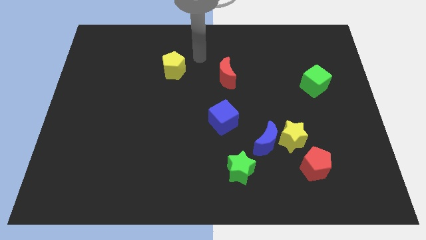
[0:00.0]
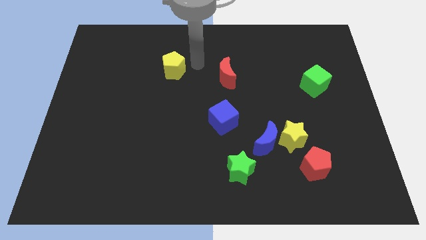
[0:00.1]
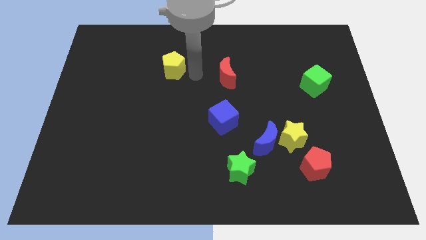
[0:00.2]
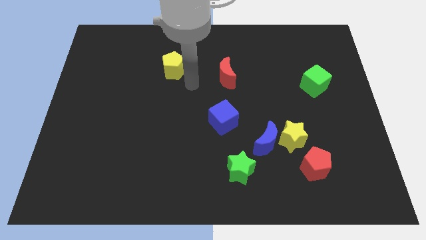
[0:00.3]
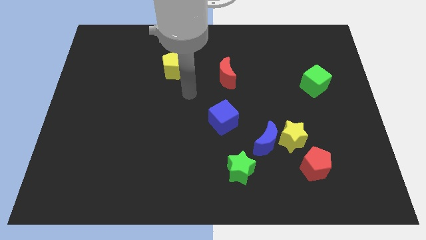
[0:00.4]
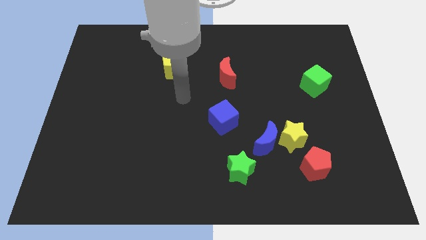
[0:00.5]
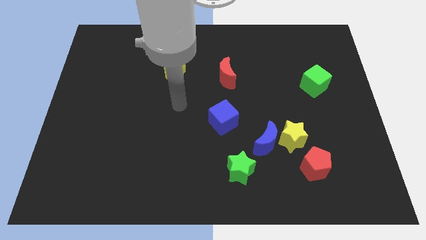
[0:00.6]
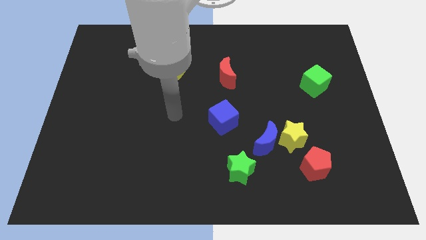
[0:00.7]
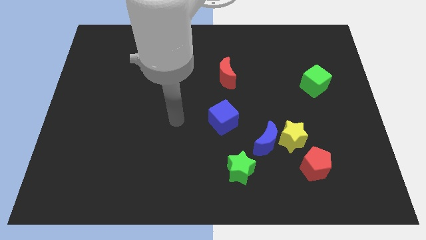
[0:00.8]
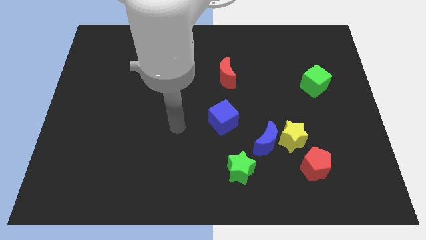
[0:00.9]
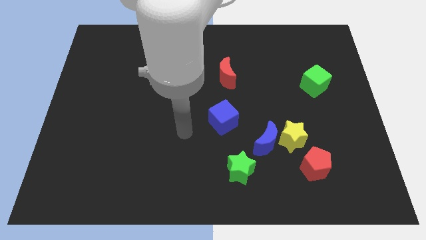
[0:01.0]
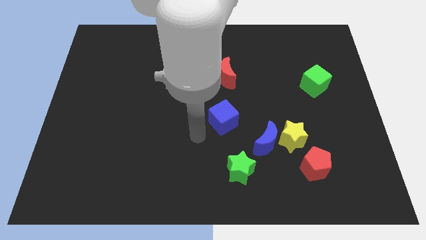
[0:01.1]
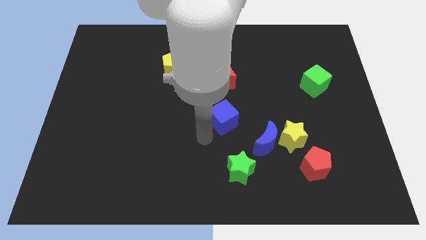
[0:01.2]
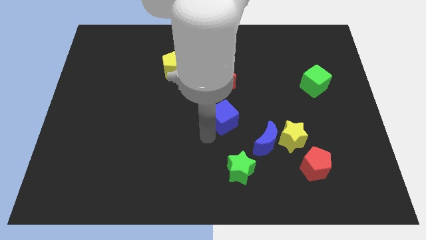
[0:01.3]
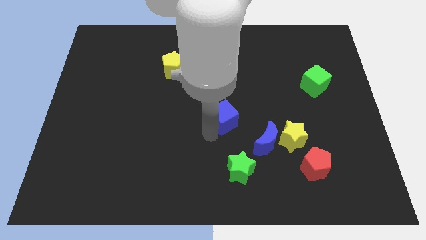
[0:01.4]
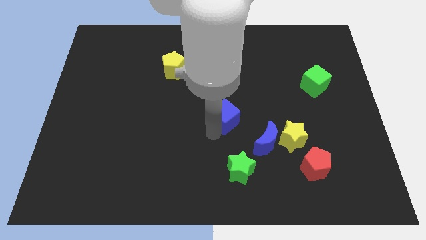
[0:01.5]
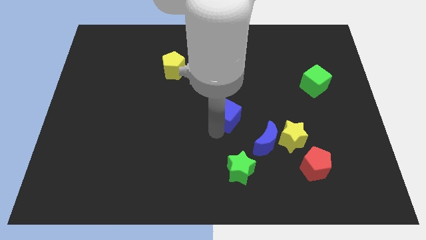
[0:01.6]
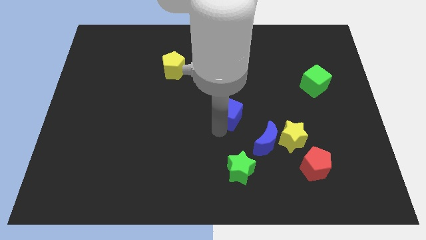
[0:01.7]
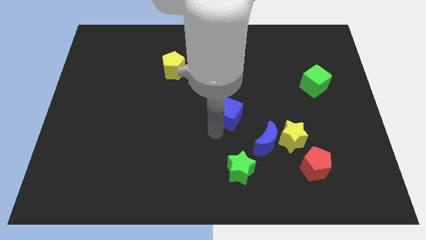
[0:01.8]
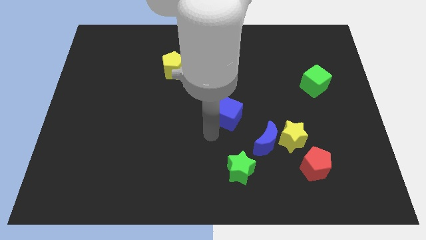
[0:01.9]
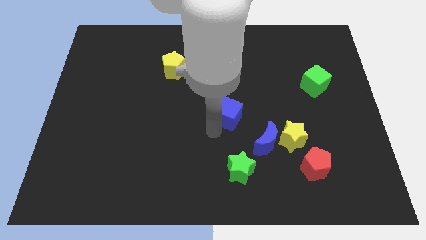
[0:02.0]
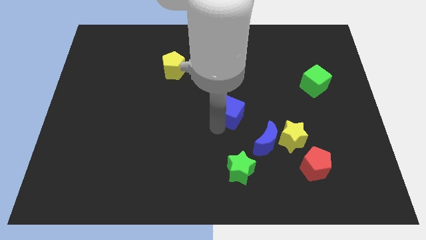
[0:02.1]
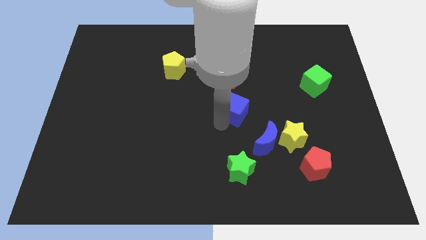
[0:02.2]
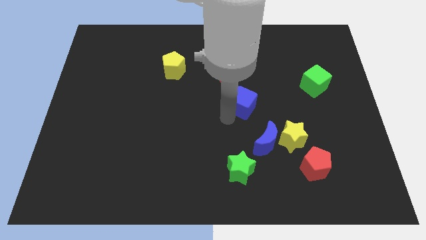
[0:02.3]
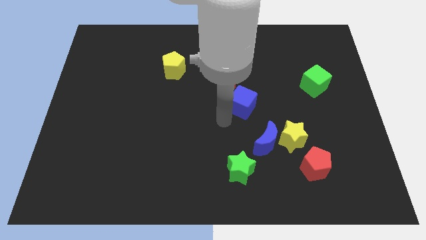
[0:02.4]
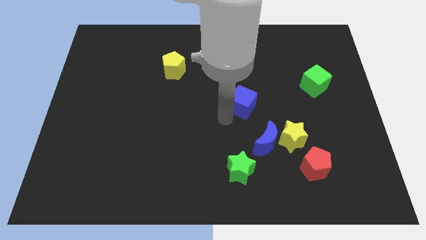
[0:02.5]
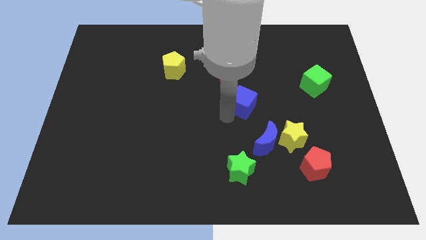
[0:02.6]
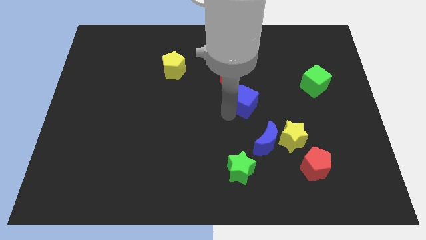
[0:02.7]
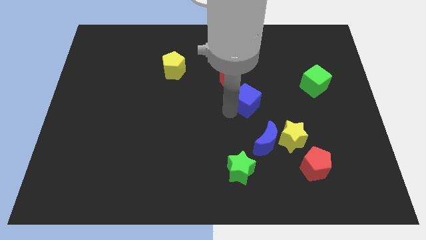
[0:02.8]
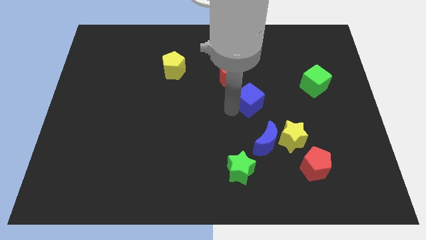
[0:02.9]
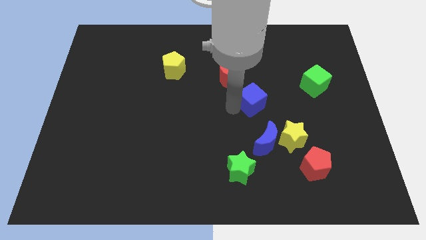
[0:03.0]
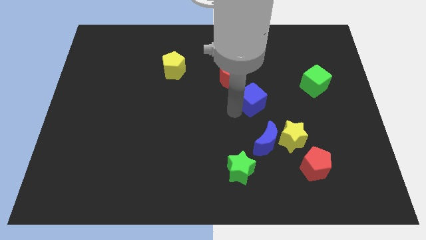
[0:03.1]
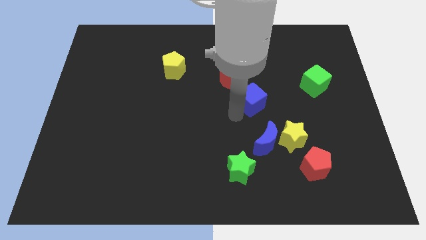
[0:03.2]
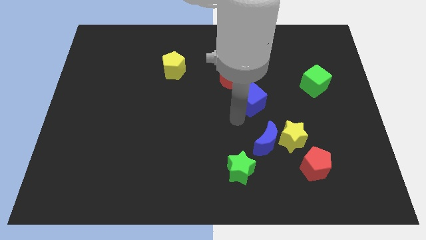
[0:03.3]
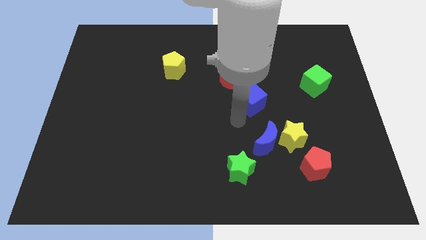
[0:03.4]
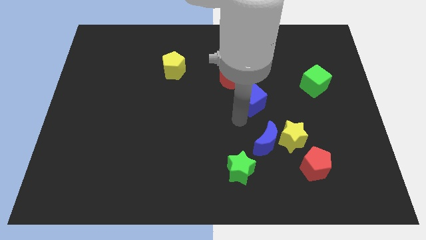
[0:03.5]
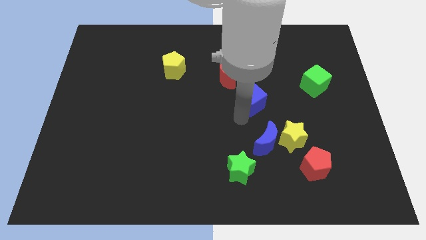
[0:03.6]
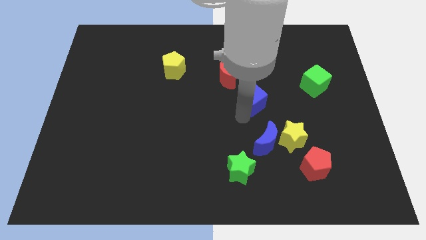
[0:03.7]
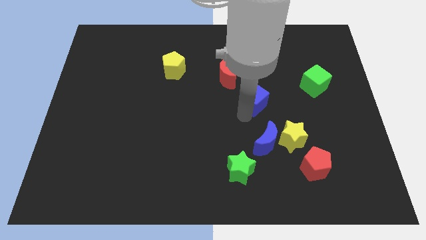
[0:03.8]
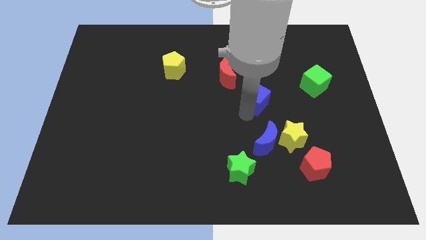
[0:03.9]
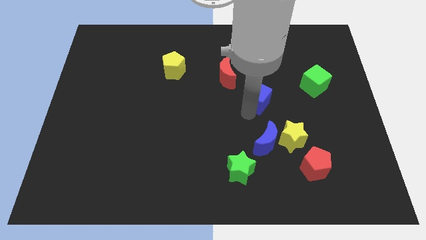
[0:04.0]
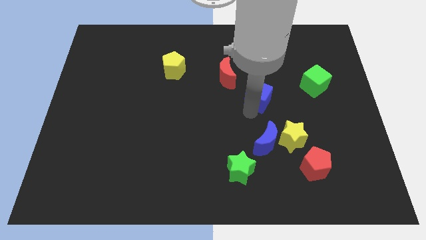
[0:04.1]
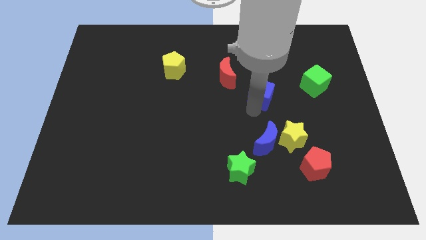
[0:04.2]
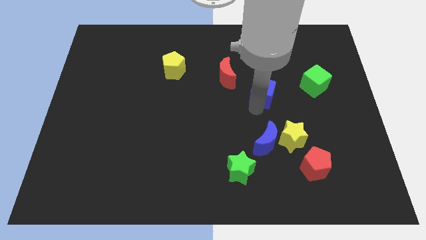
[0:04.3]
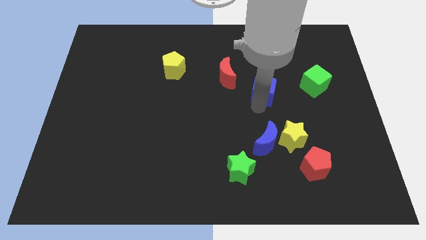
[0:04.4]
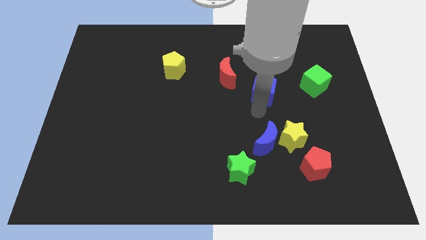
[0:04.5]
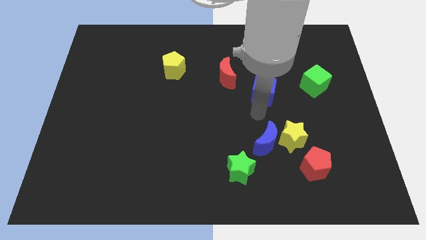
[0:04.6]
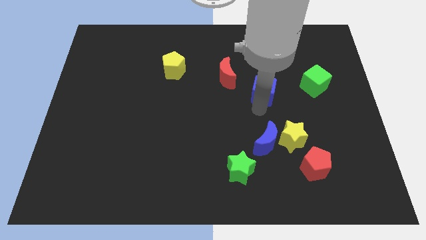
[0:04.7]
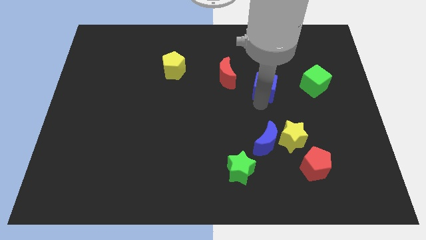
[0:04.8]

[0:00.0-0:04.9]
slide the blue cube to the right of the red moon

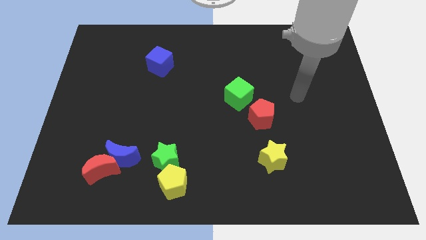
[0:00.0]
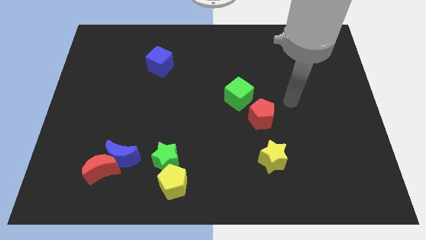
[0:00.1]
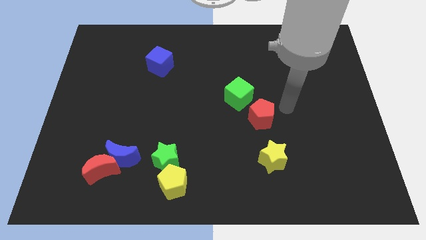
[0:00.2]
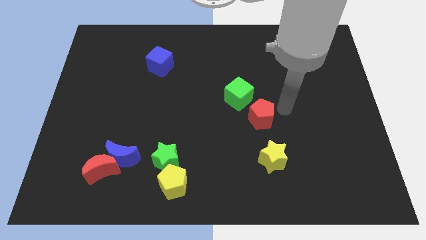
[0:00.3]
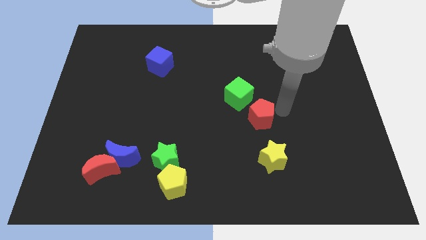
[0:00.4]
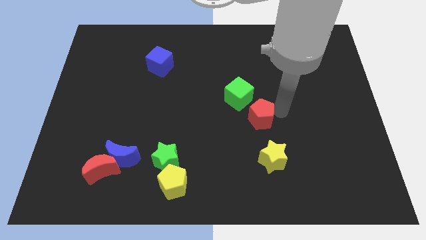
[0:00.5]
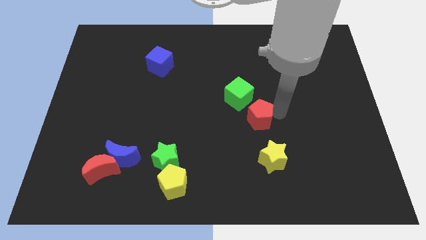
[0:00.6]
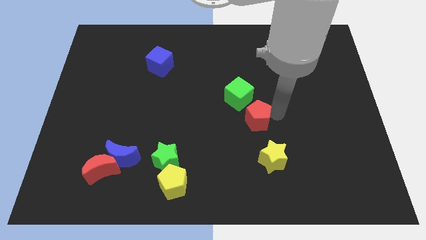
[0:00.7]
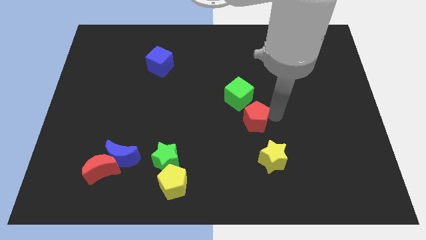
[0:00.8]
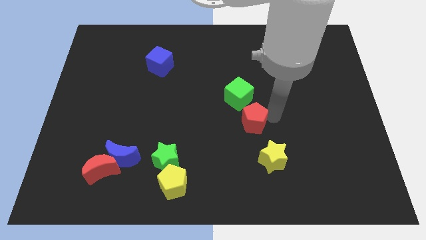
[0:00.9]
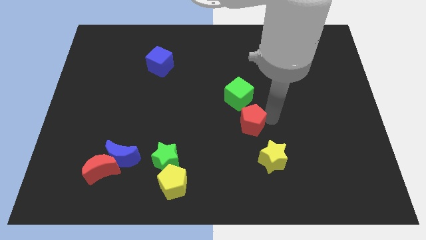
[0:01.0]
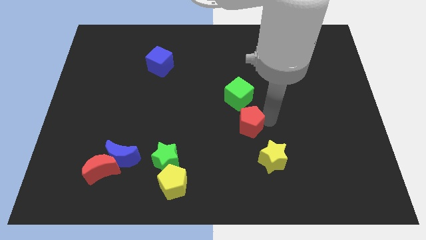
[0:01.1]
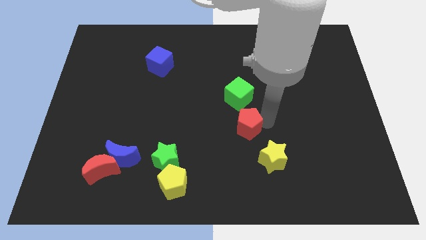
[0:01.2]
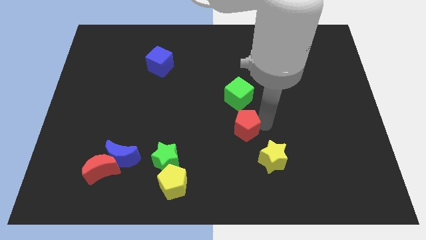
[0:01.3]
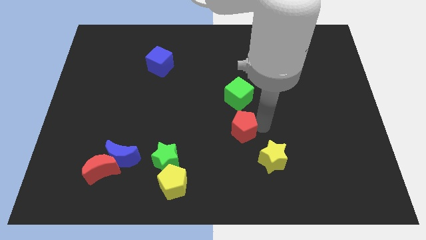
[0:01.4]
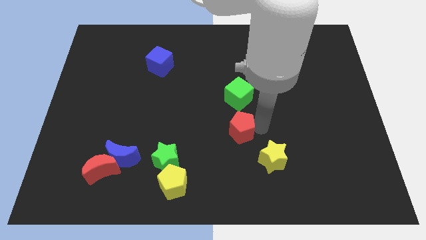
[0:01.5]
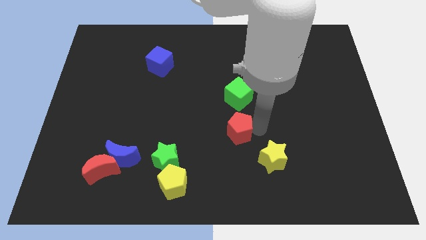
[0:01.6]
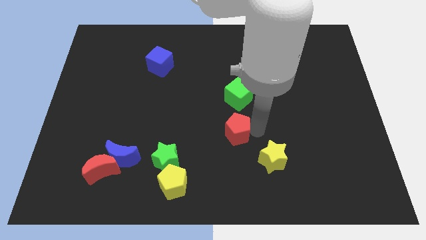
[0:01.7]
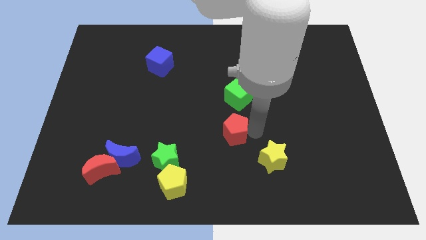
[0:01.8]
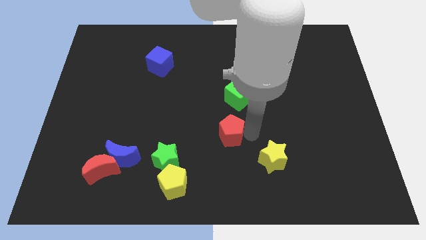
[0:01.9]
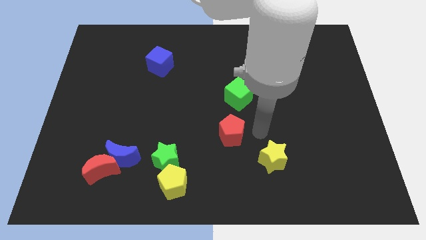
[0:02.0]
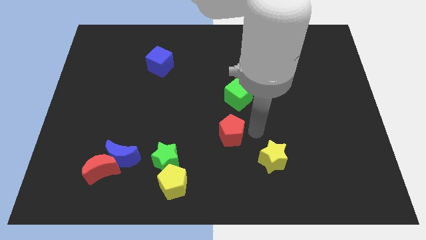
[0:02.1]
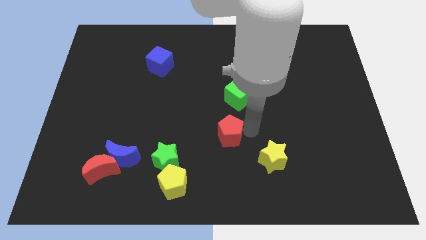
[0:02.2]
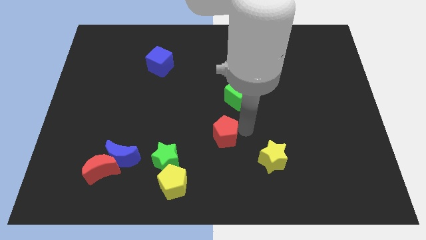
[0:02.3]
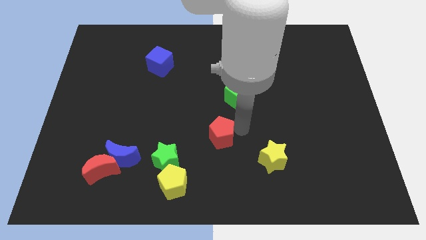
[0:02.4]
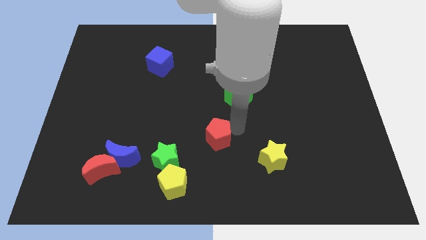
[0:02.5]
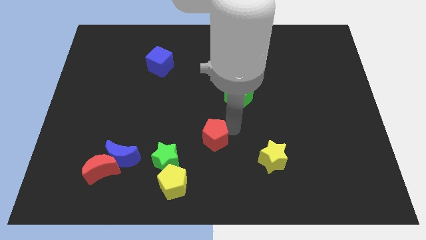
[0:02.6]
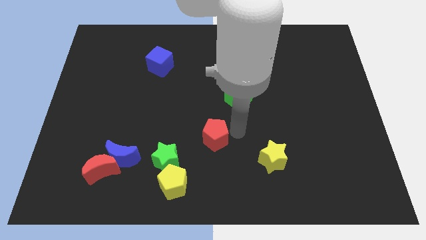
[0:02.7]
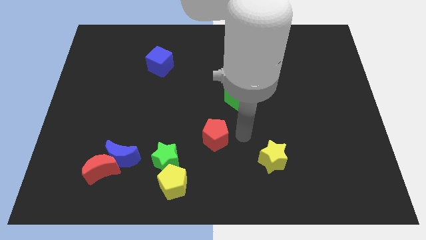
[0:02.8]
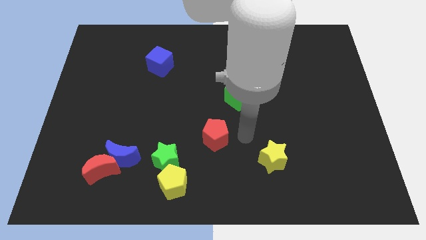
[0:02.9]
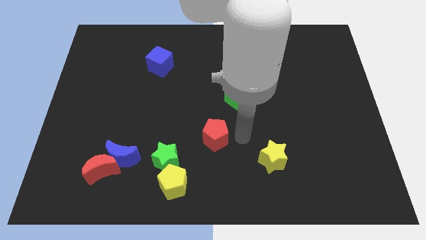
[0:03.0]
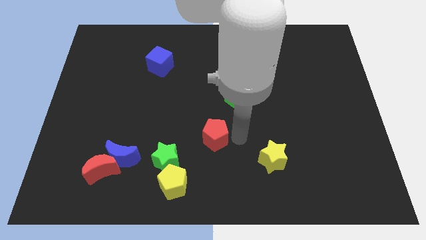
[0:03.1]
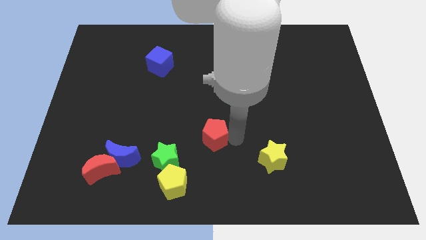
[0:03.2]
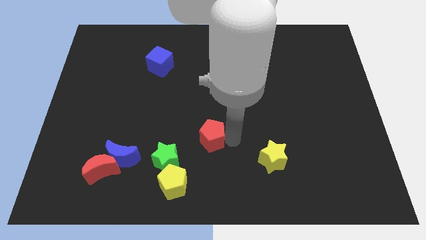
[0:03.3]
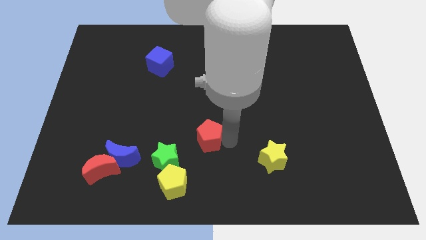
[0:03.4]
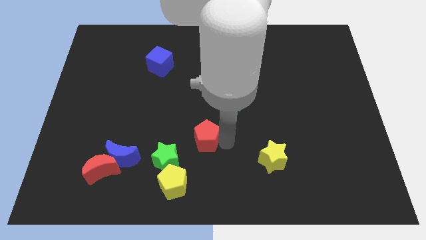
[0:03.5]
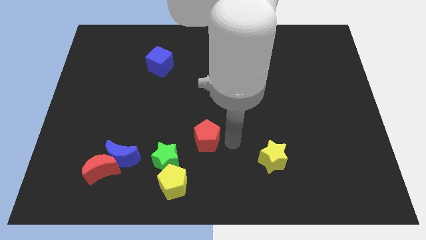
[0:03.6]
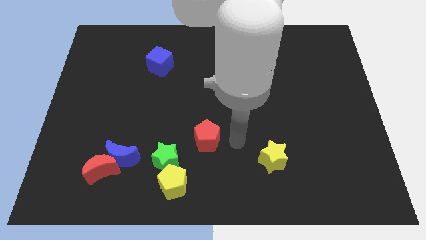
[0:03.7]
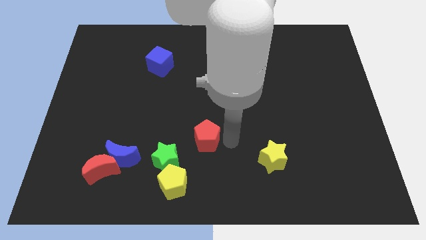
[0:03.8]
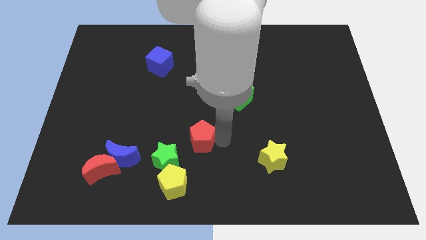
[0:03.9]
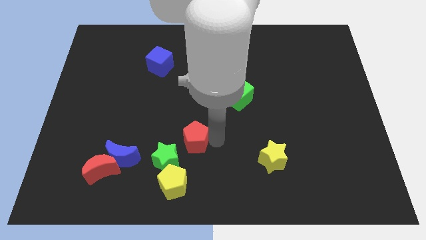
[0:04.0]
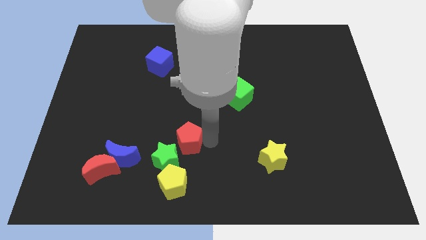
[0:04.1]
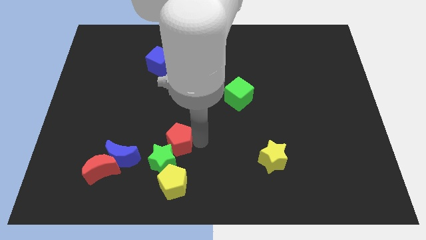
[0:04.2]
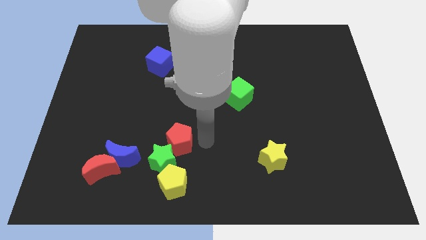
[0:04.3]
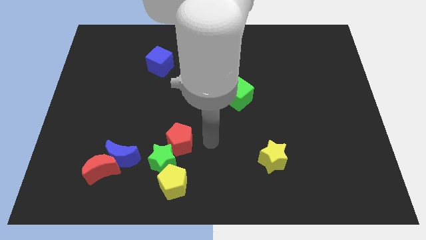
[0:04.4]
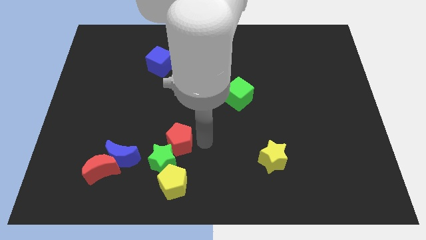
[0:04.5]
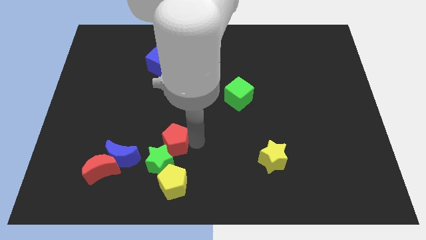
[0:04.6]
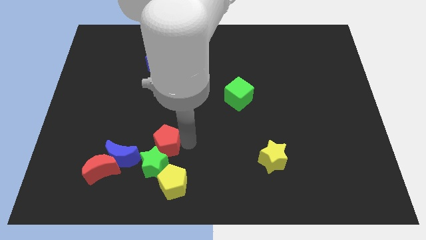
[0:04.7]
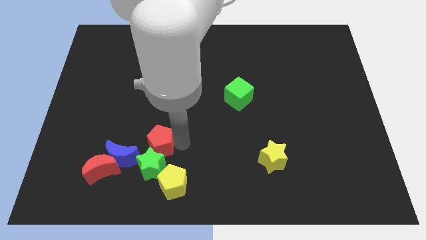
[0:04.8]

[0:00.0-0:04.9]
slide the red pentagon to the top left of the yellow pentagon
